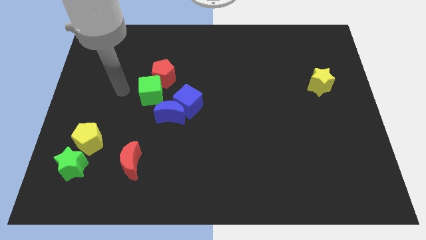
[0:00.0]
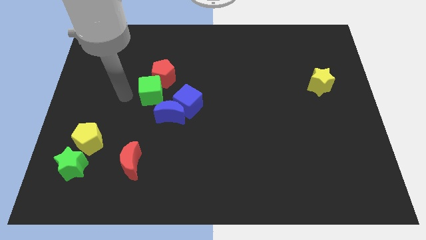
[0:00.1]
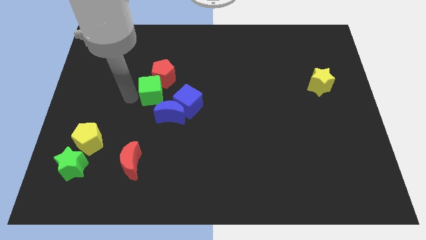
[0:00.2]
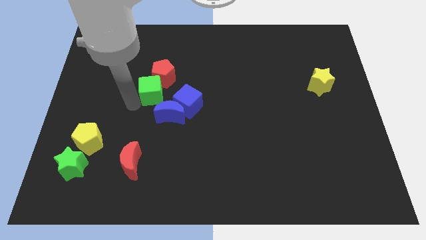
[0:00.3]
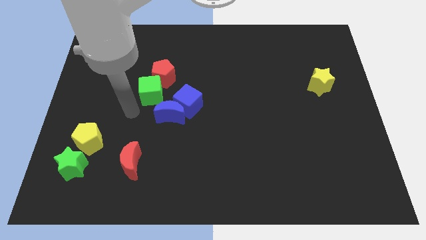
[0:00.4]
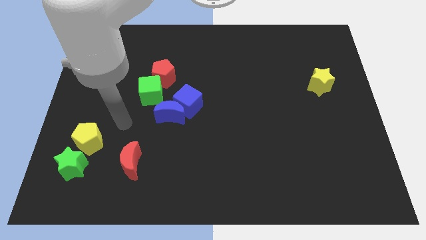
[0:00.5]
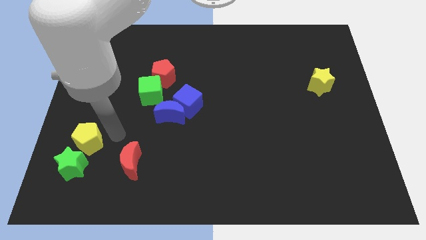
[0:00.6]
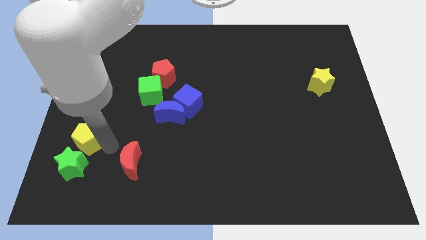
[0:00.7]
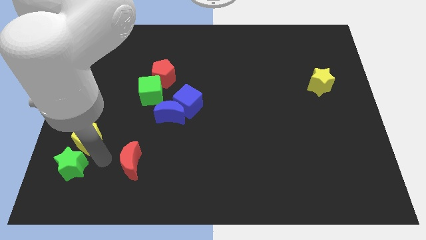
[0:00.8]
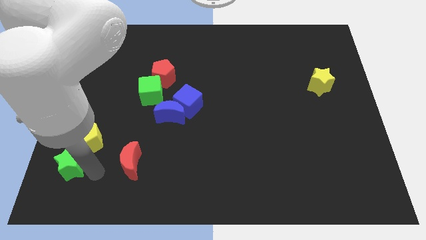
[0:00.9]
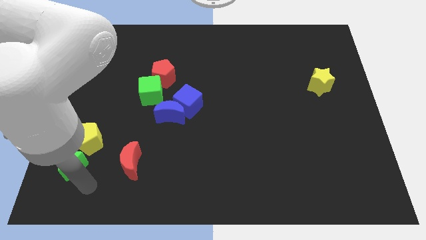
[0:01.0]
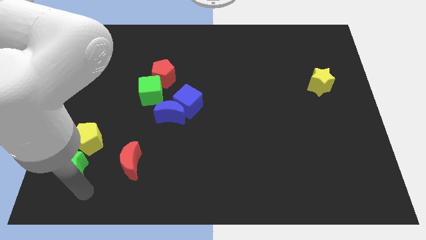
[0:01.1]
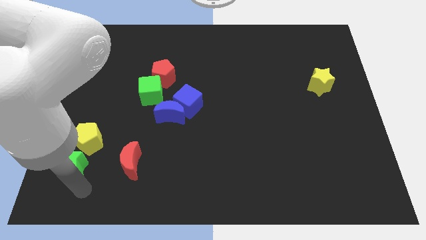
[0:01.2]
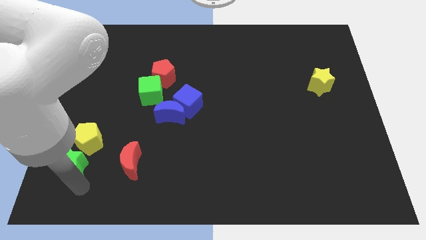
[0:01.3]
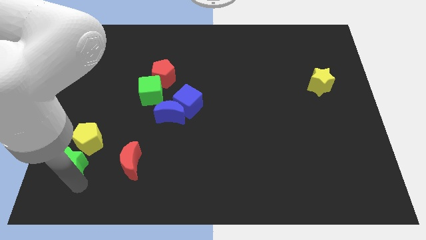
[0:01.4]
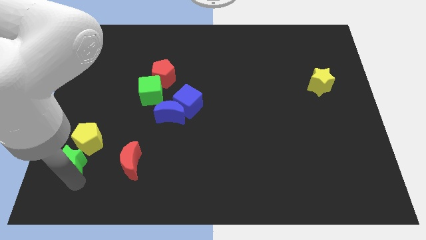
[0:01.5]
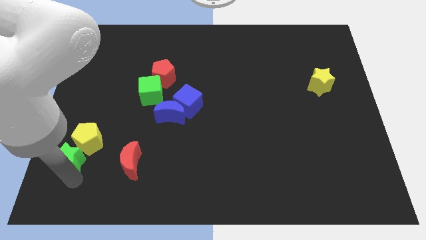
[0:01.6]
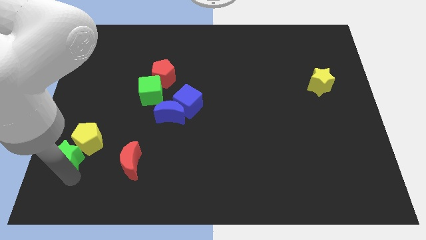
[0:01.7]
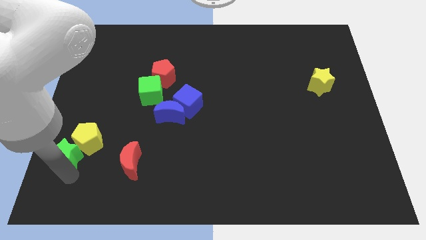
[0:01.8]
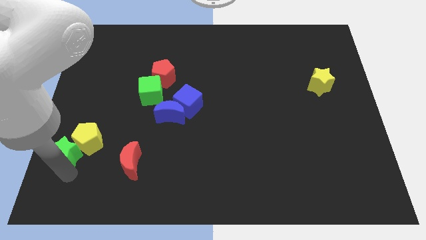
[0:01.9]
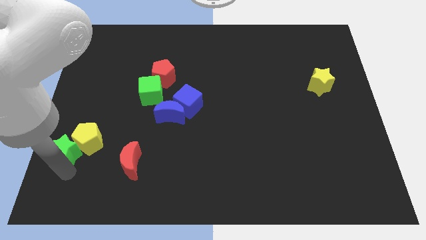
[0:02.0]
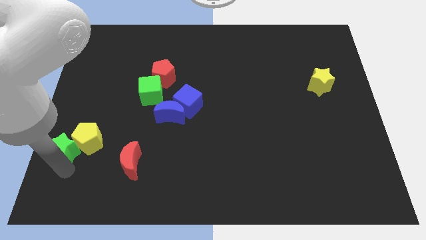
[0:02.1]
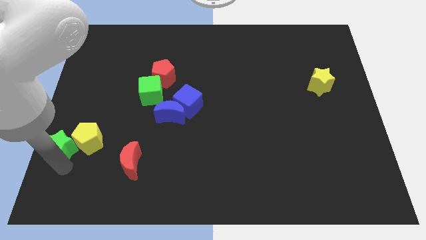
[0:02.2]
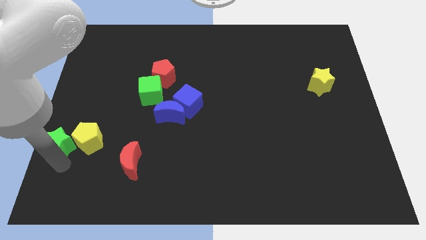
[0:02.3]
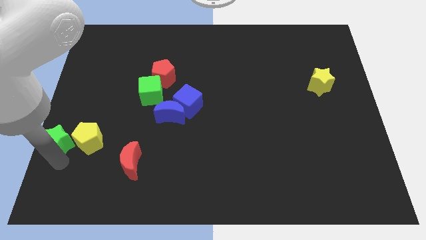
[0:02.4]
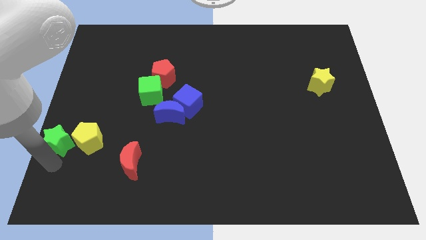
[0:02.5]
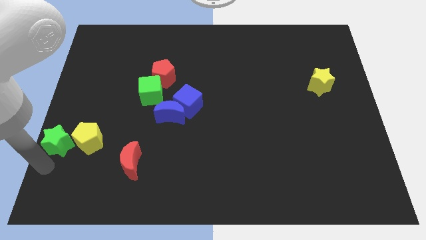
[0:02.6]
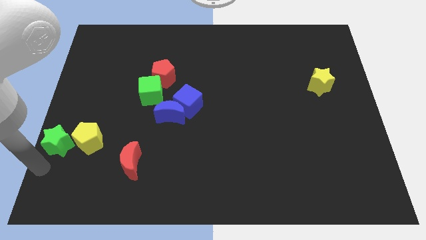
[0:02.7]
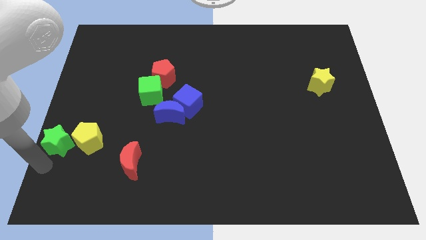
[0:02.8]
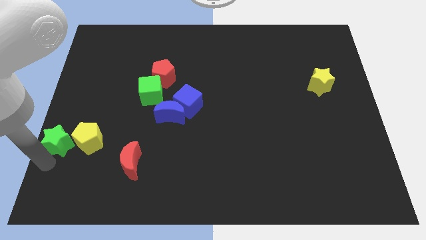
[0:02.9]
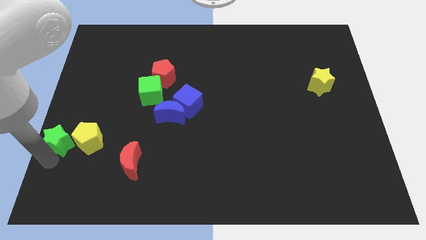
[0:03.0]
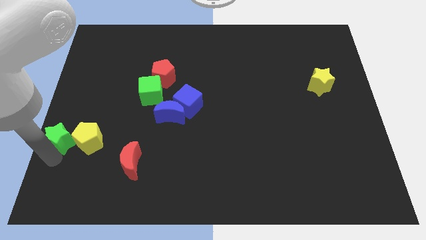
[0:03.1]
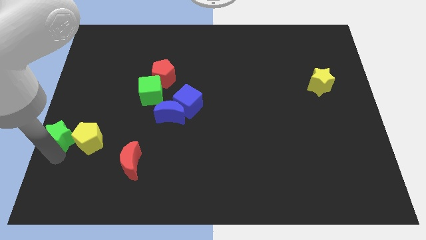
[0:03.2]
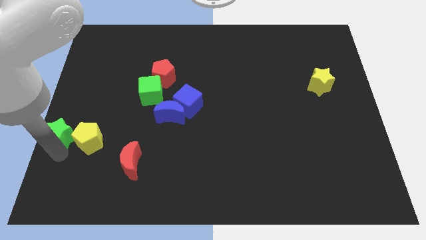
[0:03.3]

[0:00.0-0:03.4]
move the green star upwards slightly

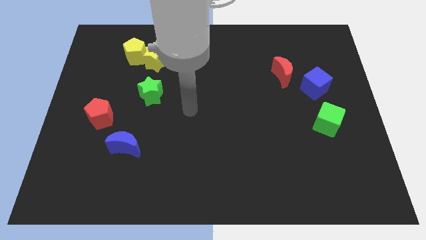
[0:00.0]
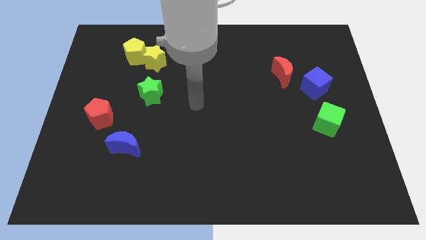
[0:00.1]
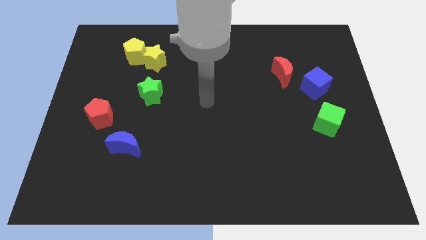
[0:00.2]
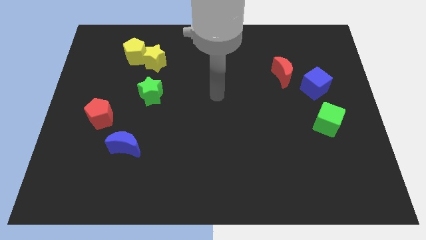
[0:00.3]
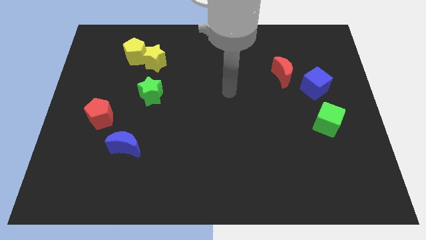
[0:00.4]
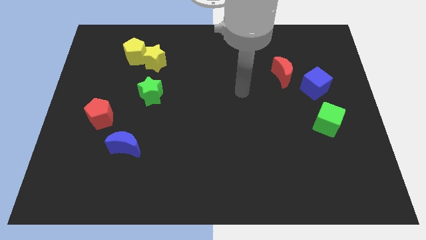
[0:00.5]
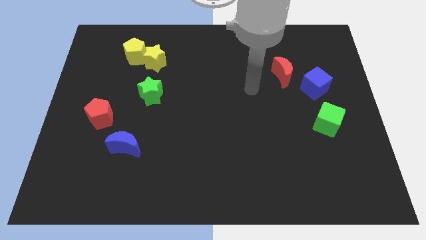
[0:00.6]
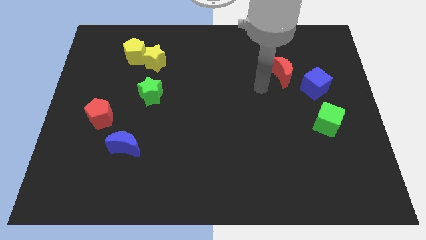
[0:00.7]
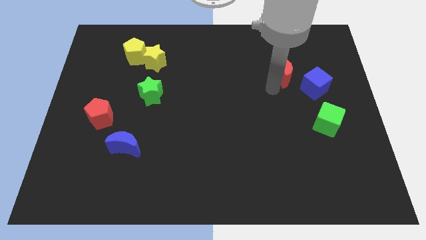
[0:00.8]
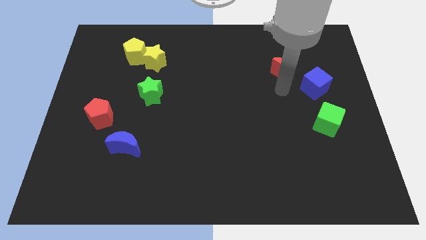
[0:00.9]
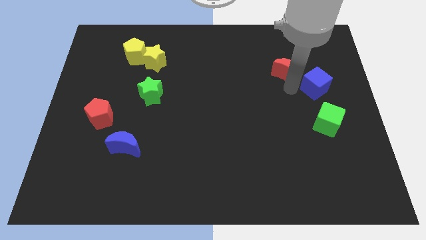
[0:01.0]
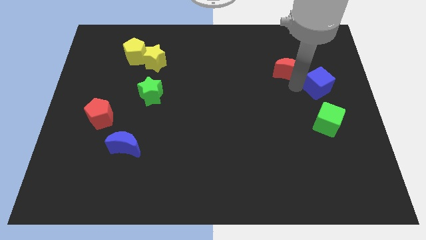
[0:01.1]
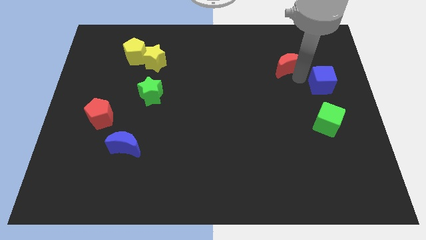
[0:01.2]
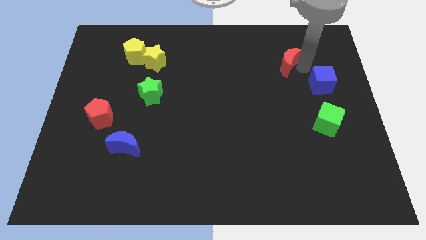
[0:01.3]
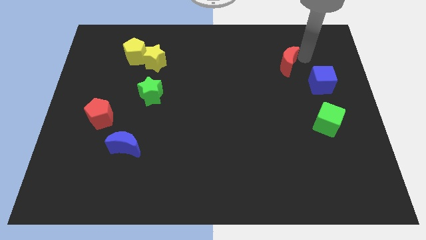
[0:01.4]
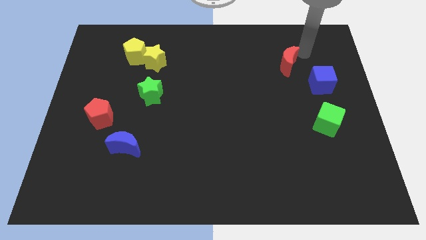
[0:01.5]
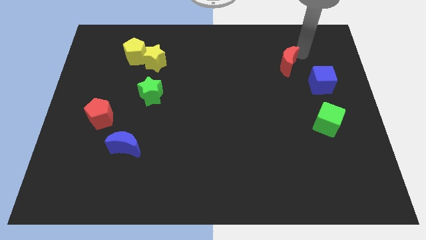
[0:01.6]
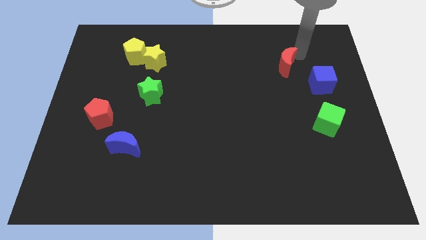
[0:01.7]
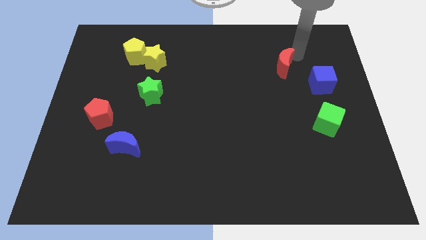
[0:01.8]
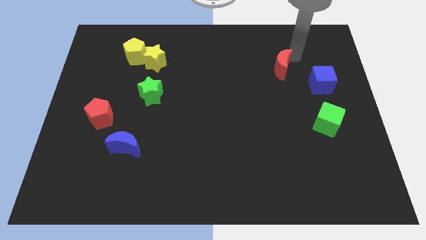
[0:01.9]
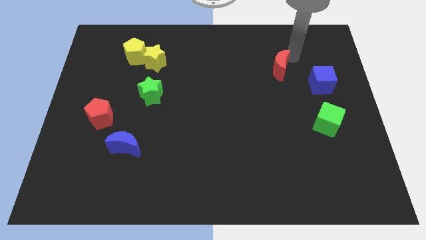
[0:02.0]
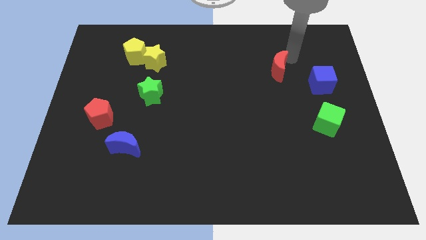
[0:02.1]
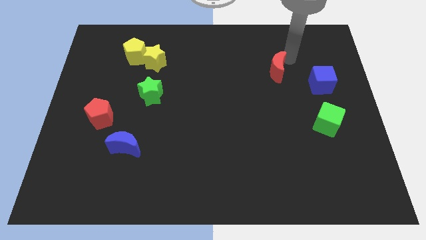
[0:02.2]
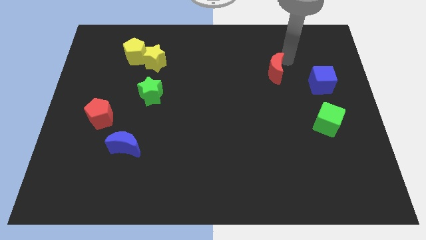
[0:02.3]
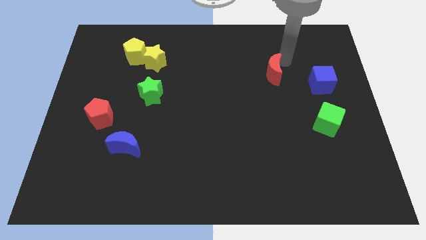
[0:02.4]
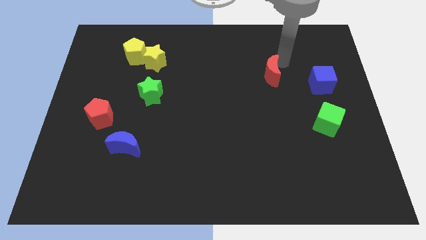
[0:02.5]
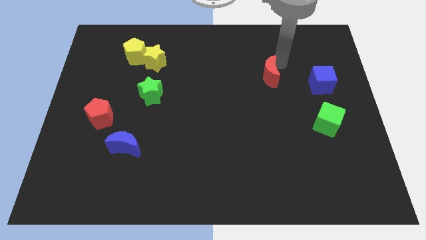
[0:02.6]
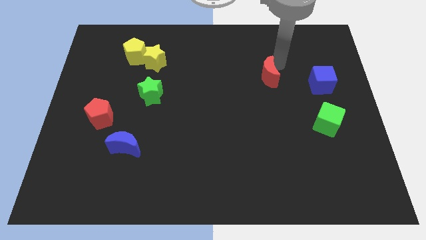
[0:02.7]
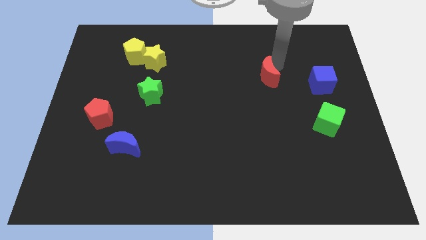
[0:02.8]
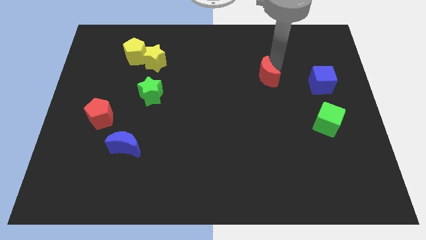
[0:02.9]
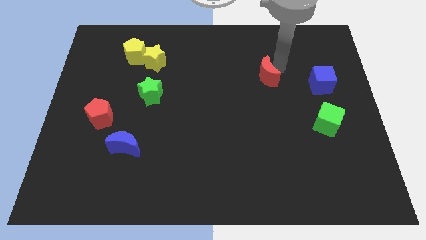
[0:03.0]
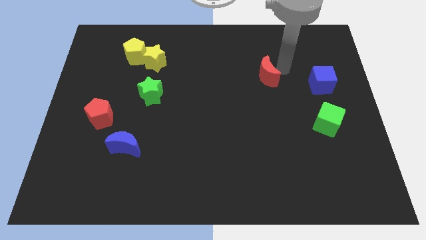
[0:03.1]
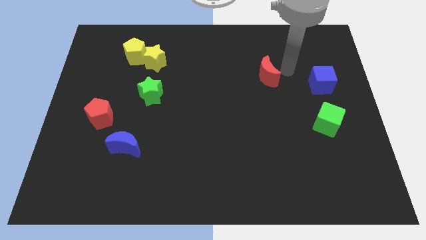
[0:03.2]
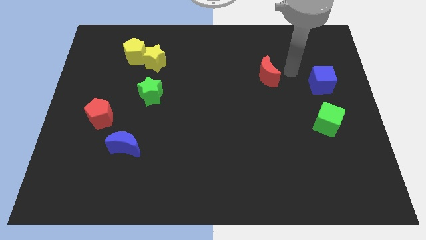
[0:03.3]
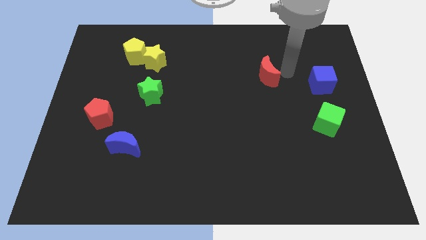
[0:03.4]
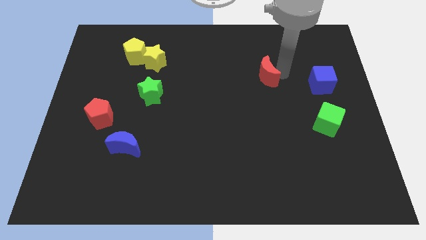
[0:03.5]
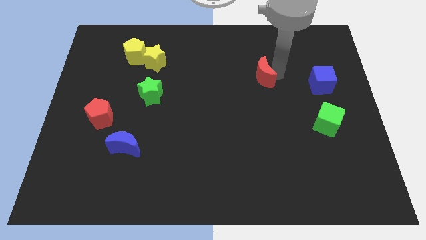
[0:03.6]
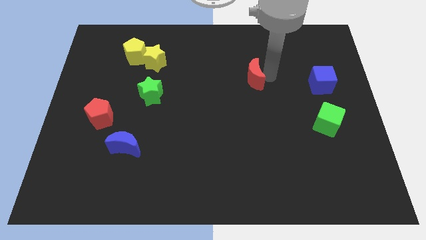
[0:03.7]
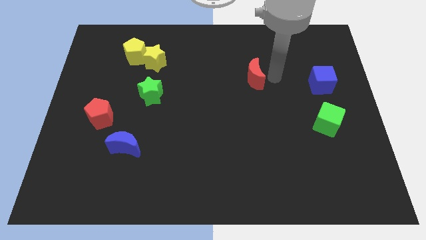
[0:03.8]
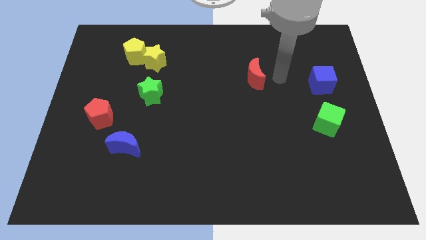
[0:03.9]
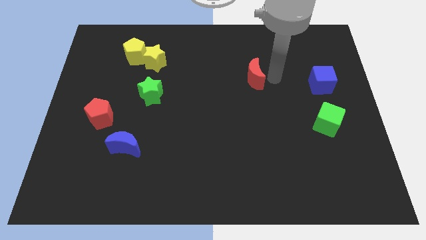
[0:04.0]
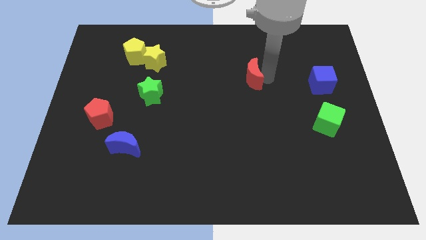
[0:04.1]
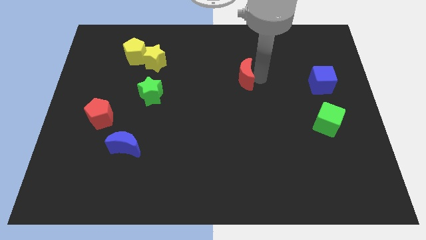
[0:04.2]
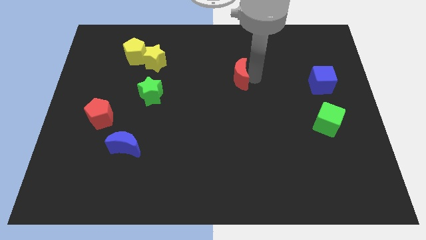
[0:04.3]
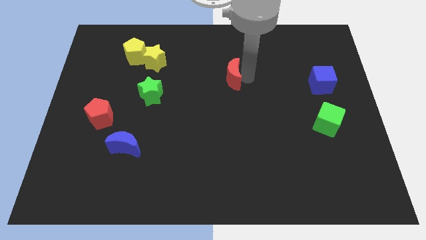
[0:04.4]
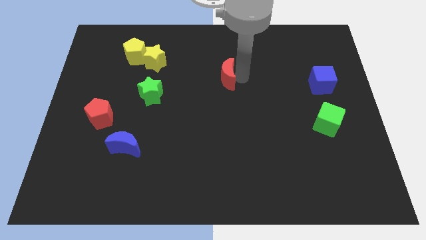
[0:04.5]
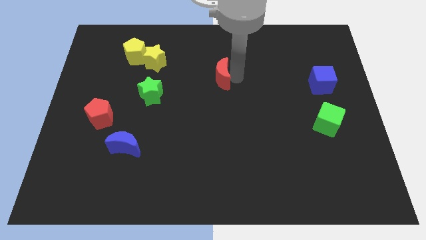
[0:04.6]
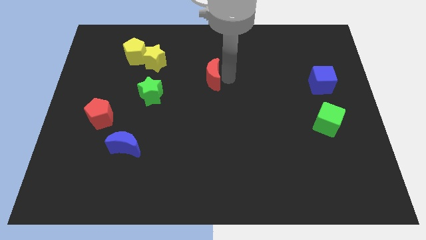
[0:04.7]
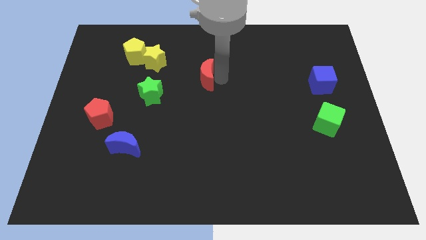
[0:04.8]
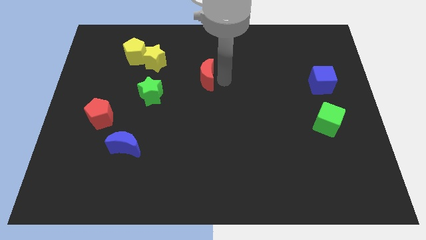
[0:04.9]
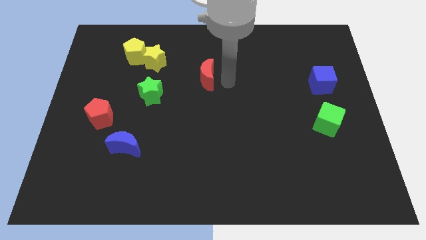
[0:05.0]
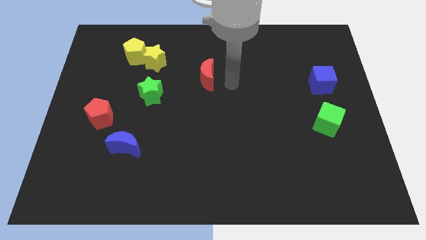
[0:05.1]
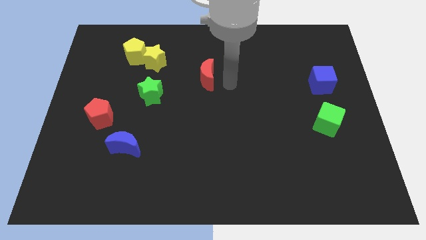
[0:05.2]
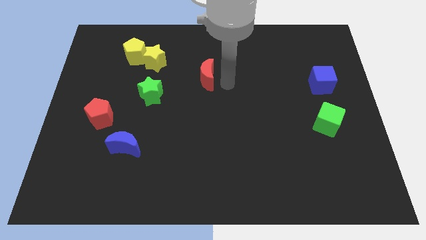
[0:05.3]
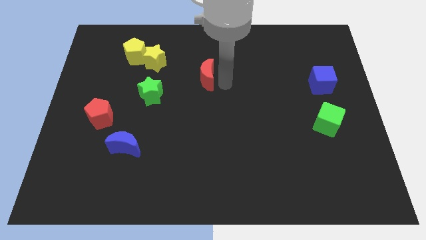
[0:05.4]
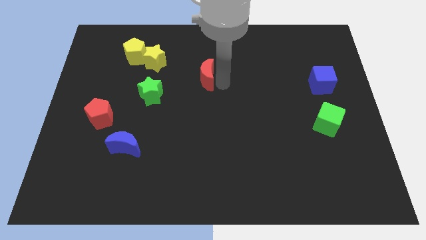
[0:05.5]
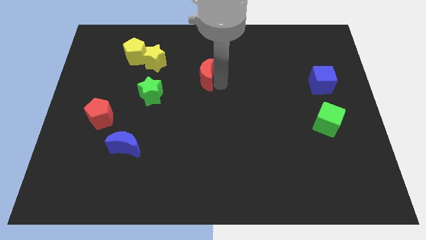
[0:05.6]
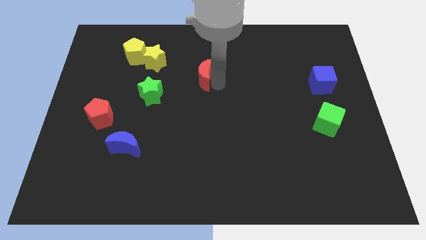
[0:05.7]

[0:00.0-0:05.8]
move the red moon left
